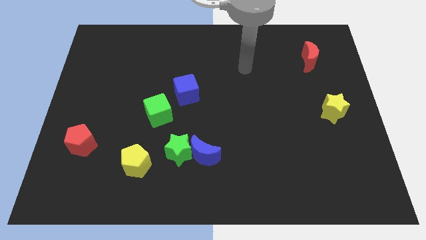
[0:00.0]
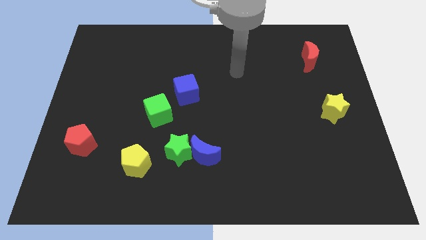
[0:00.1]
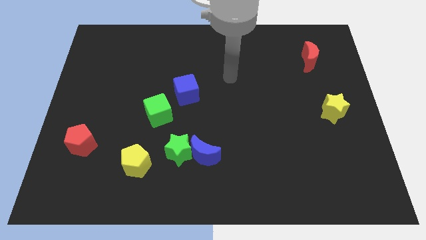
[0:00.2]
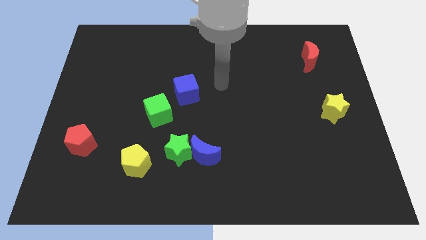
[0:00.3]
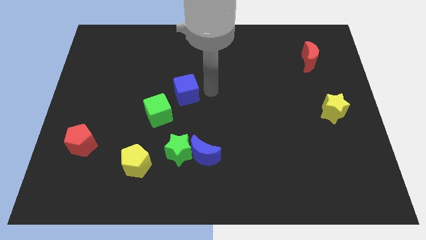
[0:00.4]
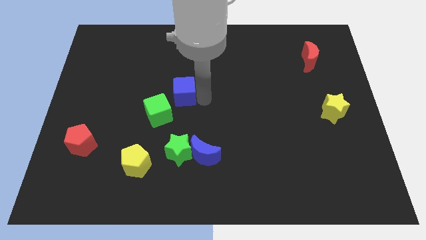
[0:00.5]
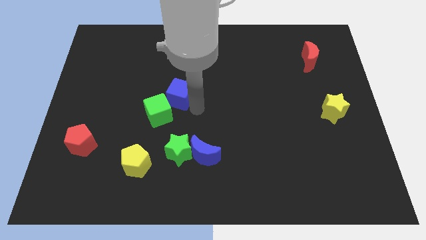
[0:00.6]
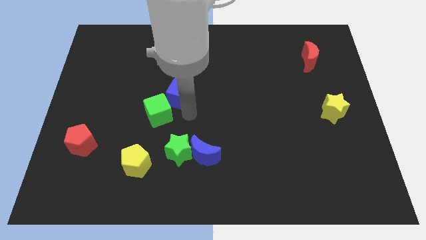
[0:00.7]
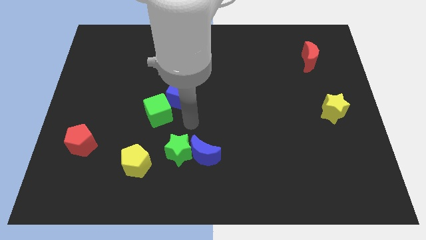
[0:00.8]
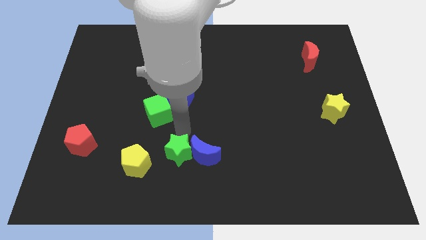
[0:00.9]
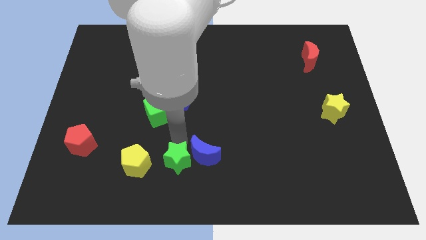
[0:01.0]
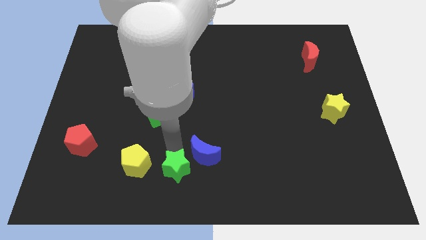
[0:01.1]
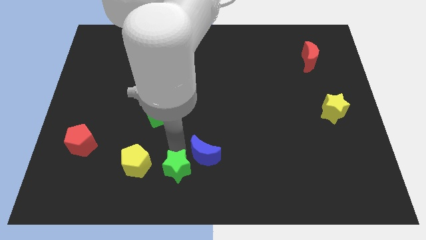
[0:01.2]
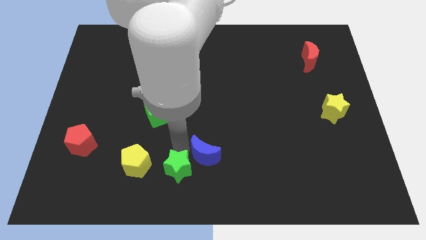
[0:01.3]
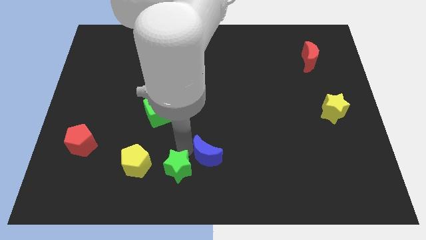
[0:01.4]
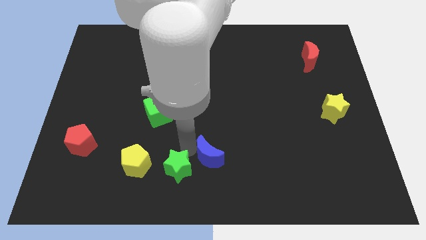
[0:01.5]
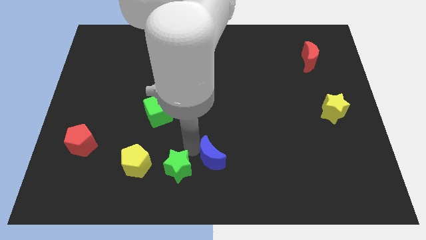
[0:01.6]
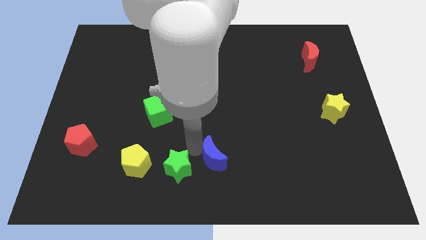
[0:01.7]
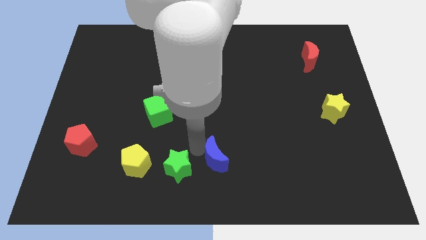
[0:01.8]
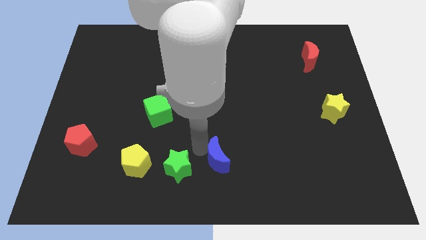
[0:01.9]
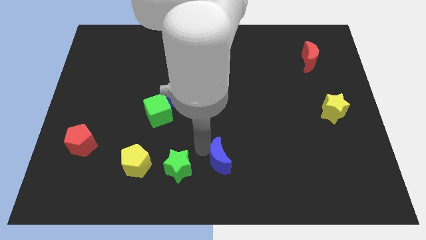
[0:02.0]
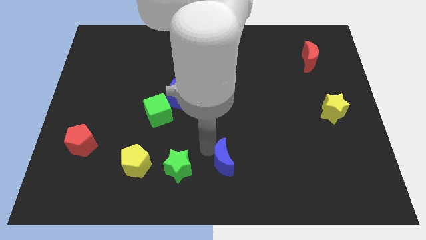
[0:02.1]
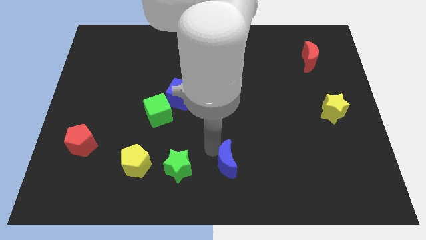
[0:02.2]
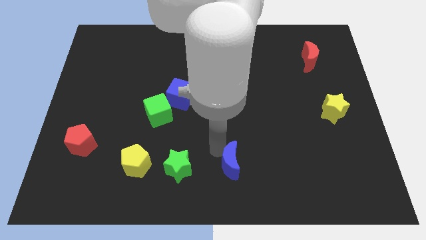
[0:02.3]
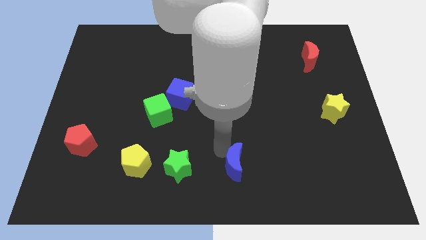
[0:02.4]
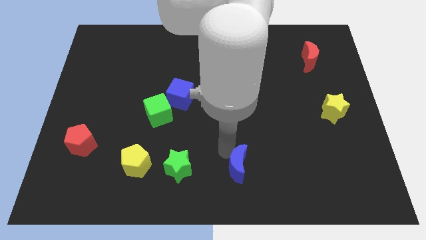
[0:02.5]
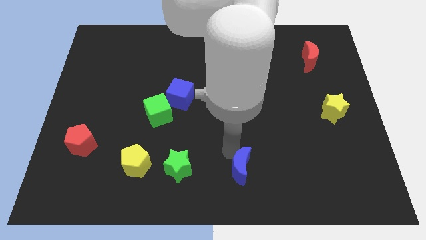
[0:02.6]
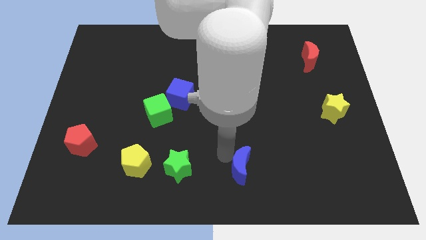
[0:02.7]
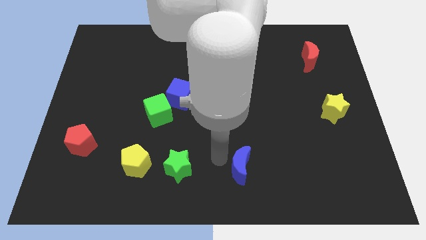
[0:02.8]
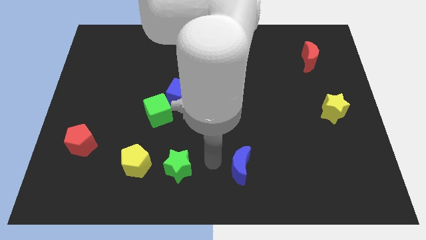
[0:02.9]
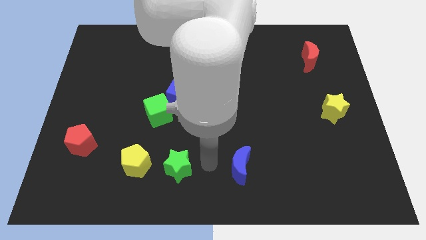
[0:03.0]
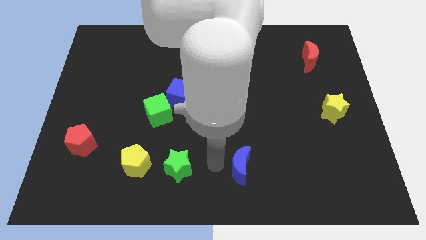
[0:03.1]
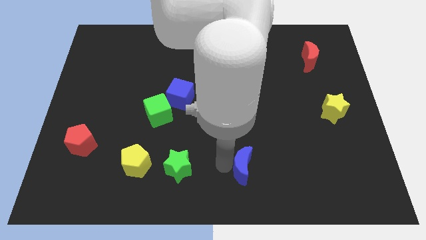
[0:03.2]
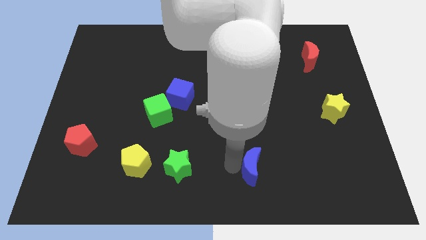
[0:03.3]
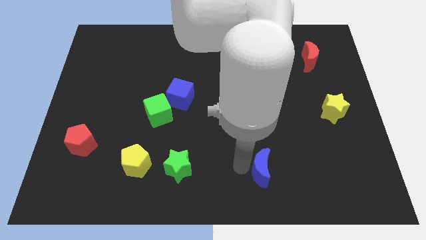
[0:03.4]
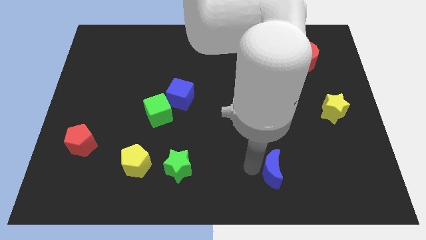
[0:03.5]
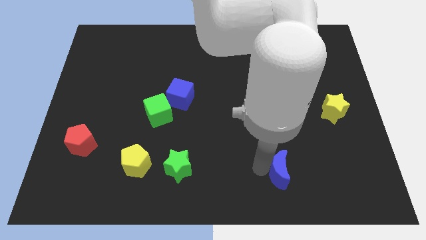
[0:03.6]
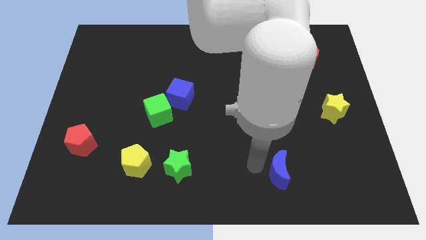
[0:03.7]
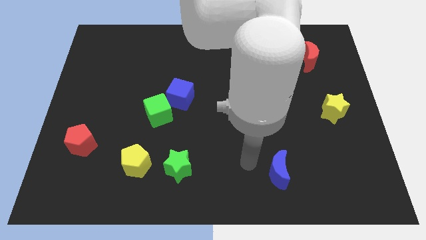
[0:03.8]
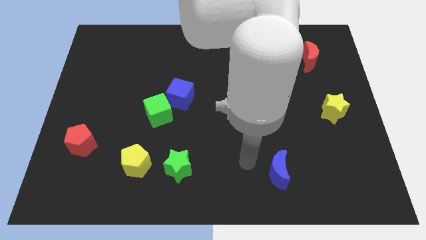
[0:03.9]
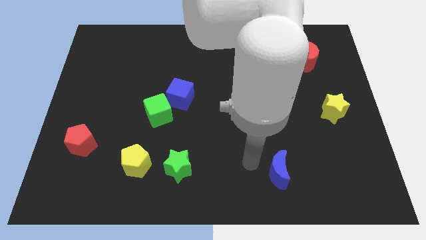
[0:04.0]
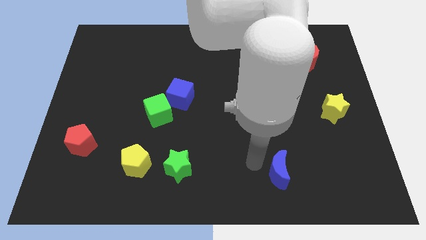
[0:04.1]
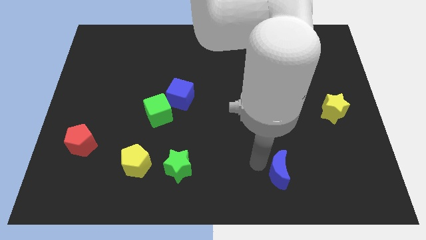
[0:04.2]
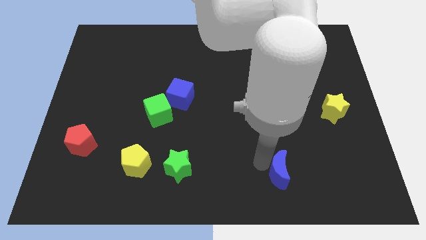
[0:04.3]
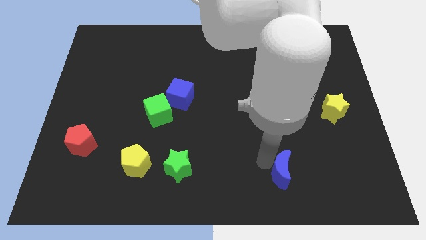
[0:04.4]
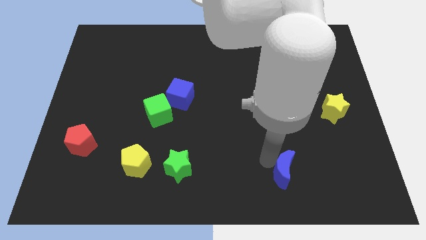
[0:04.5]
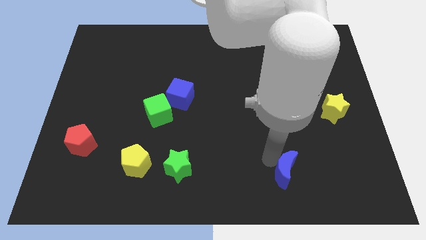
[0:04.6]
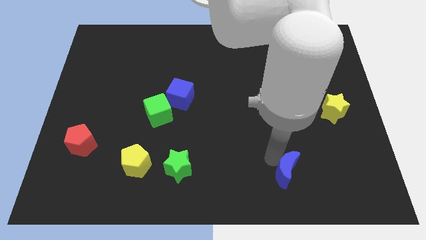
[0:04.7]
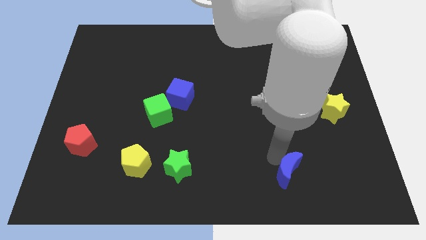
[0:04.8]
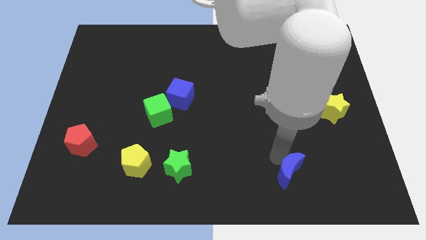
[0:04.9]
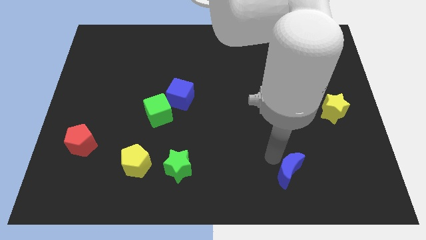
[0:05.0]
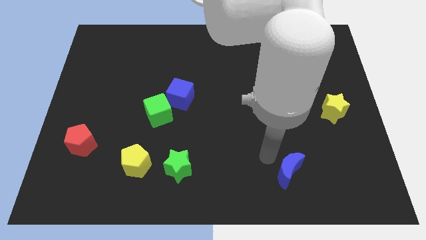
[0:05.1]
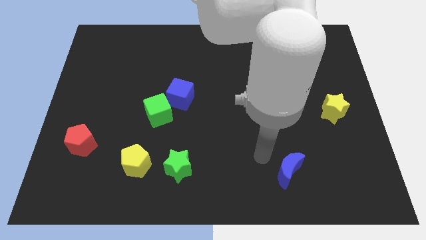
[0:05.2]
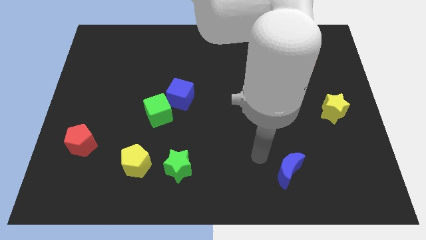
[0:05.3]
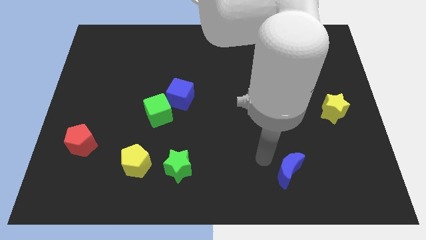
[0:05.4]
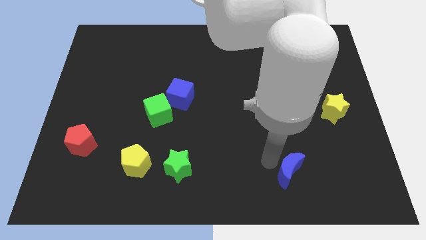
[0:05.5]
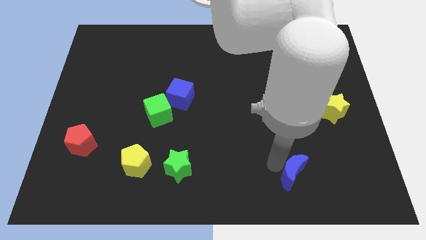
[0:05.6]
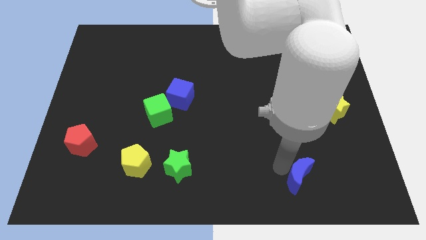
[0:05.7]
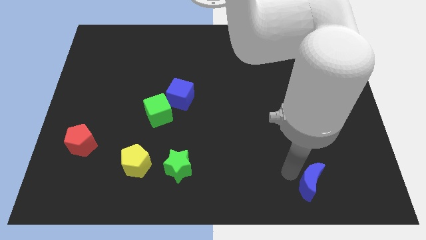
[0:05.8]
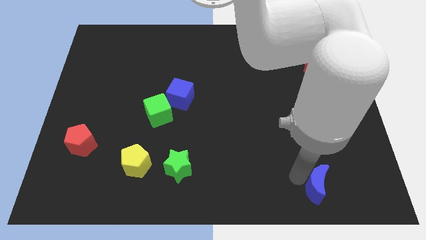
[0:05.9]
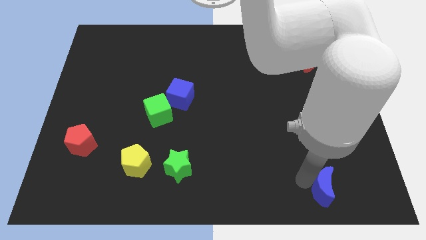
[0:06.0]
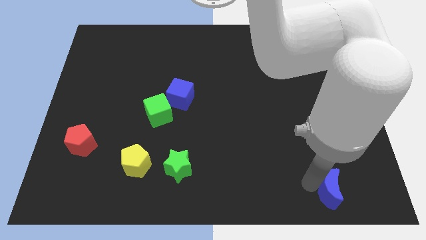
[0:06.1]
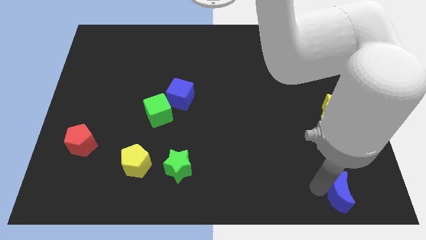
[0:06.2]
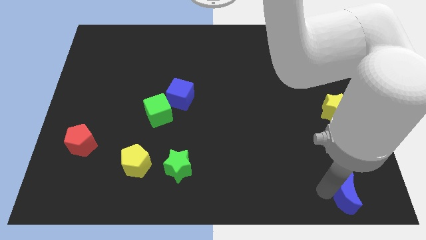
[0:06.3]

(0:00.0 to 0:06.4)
move the blue moon to the lower right corner
